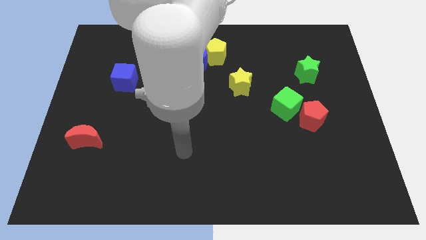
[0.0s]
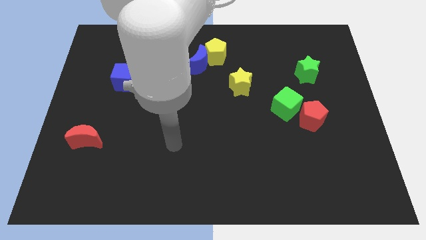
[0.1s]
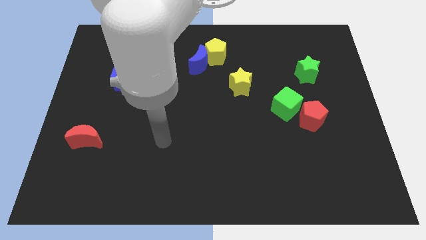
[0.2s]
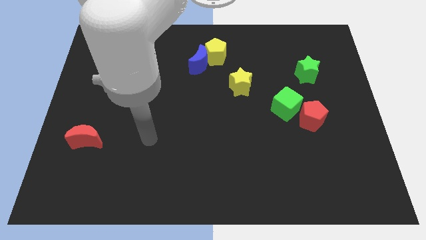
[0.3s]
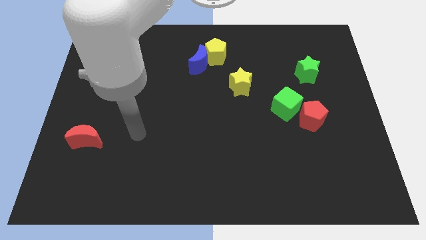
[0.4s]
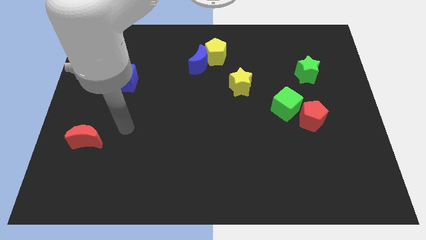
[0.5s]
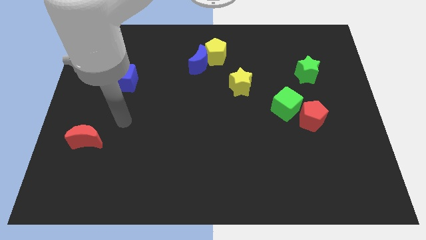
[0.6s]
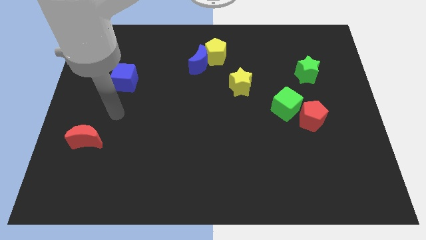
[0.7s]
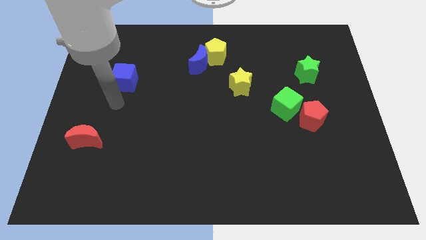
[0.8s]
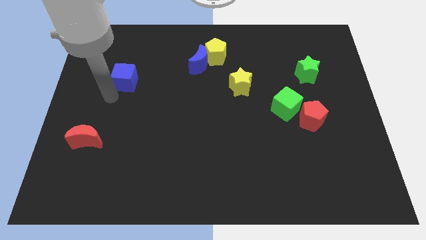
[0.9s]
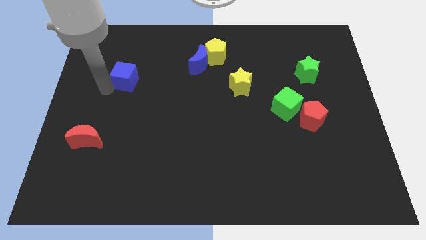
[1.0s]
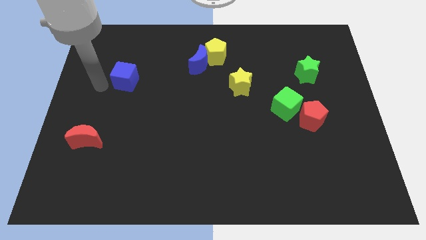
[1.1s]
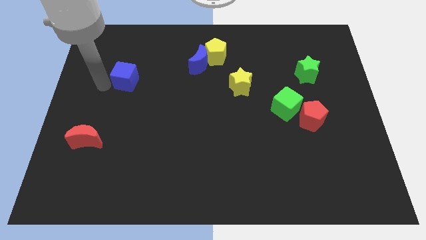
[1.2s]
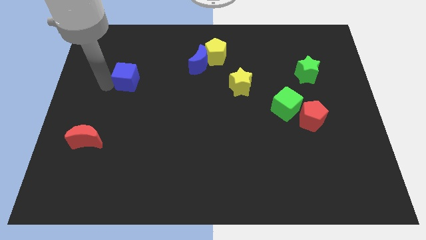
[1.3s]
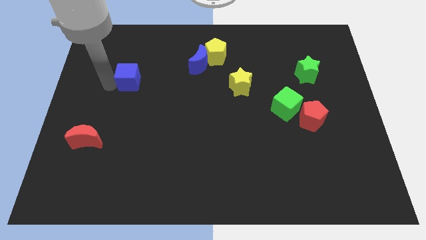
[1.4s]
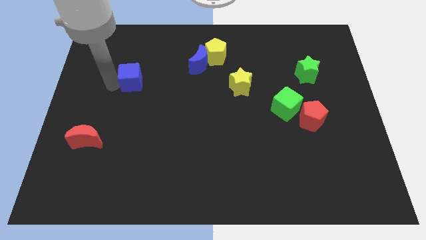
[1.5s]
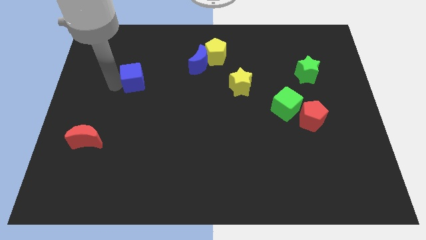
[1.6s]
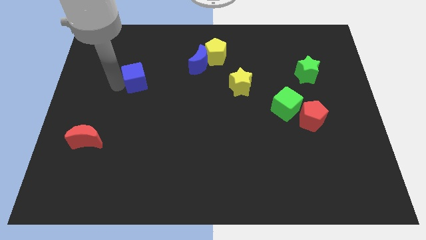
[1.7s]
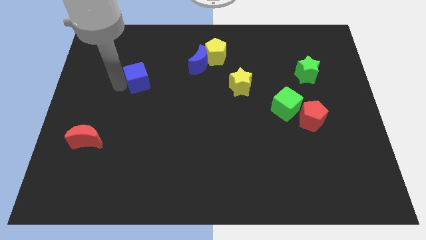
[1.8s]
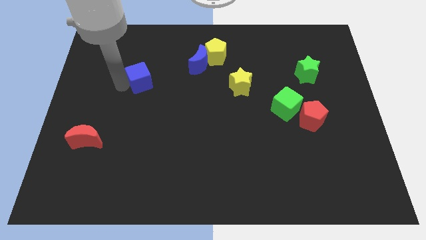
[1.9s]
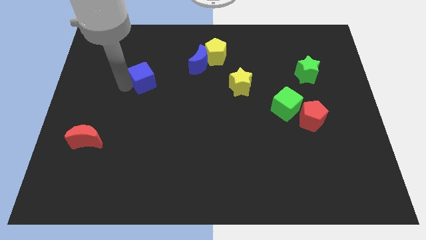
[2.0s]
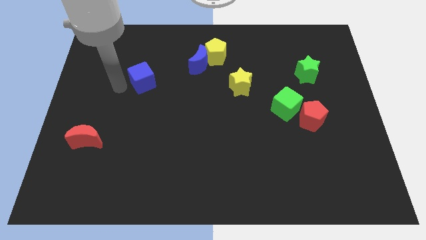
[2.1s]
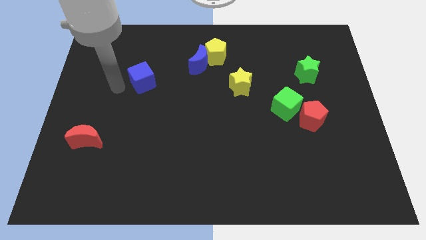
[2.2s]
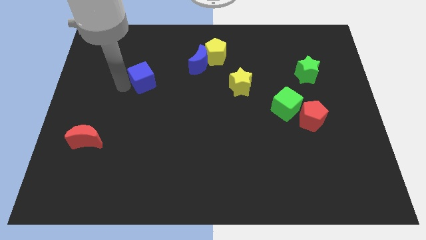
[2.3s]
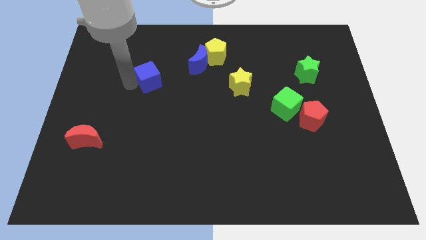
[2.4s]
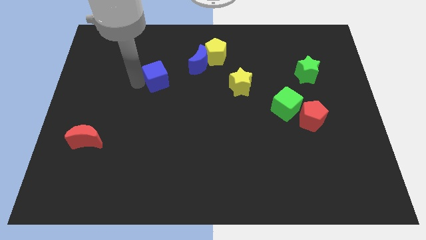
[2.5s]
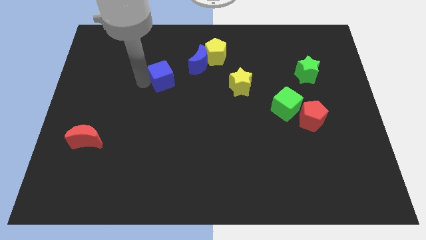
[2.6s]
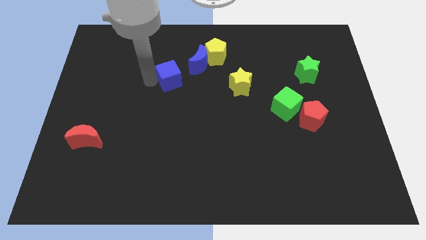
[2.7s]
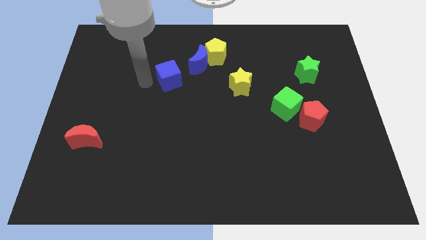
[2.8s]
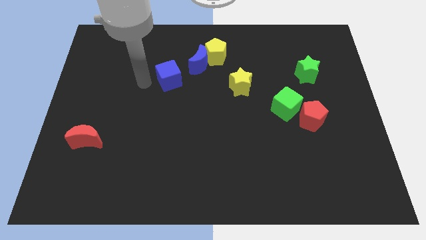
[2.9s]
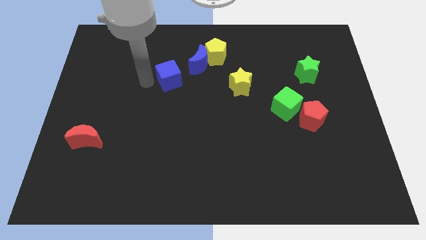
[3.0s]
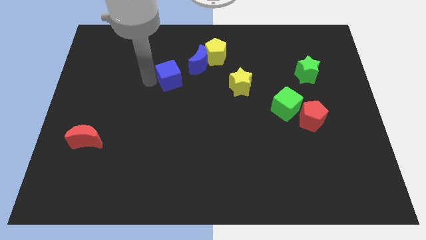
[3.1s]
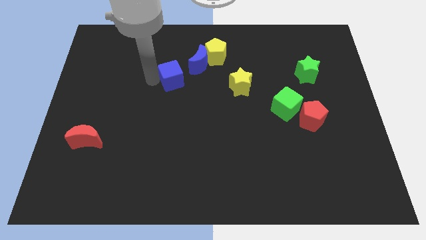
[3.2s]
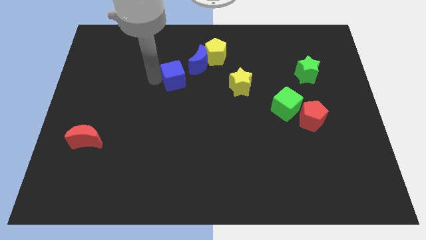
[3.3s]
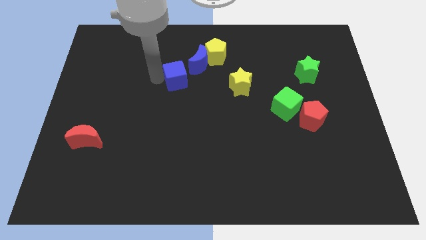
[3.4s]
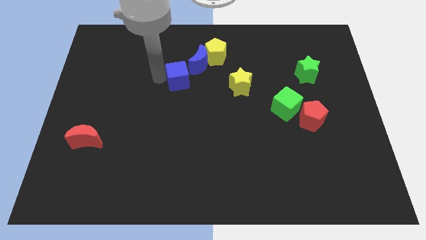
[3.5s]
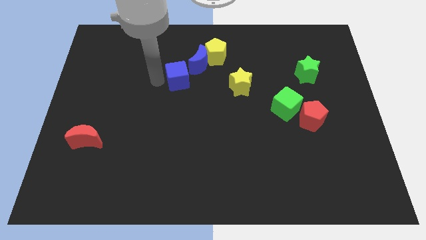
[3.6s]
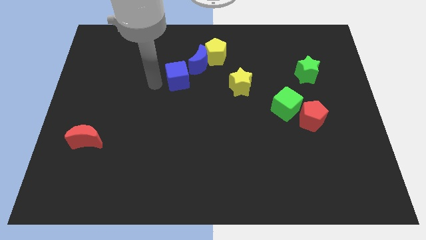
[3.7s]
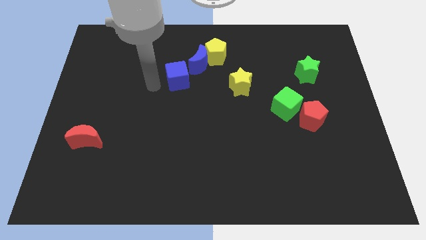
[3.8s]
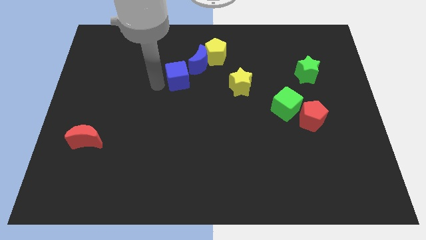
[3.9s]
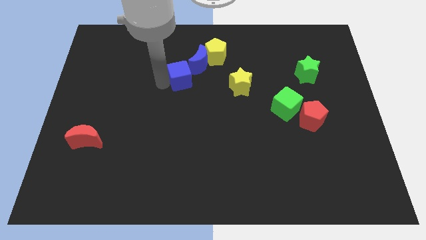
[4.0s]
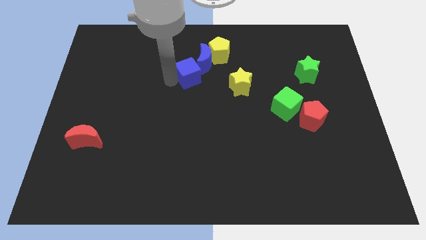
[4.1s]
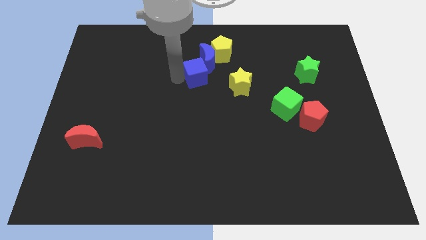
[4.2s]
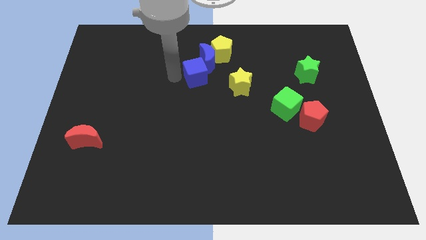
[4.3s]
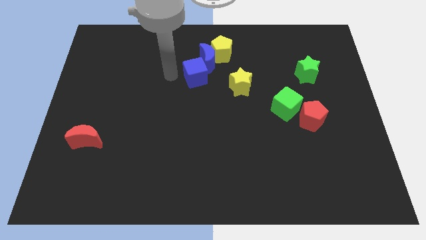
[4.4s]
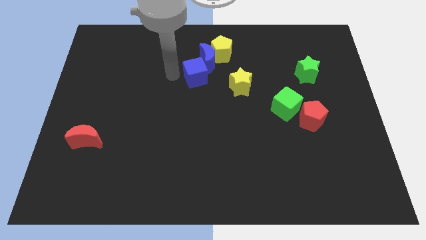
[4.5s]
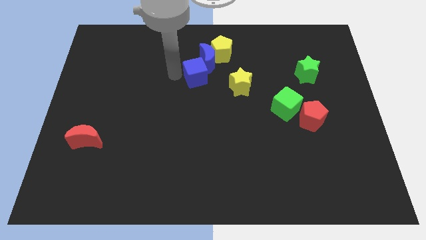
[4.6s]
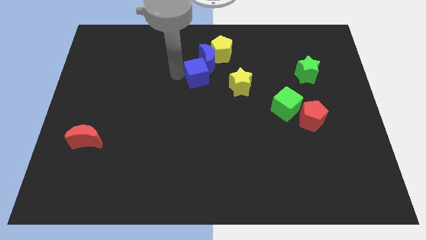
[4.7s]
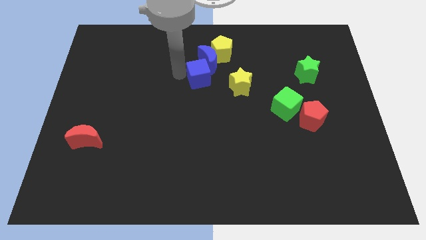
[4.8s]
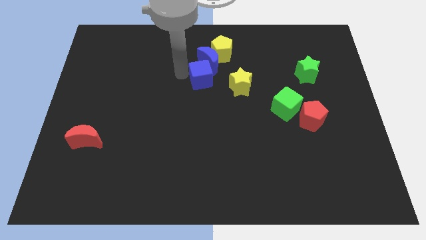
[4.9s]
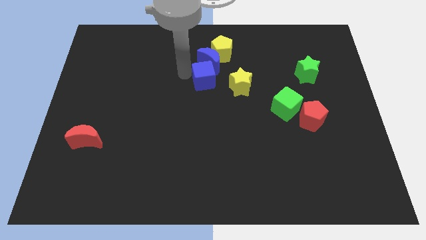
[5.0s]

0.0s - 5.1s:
push the blue cube right

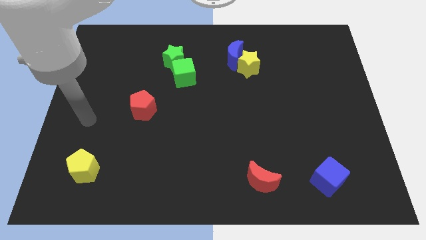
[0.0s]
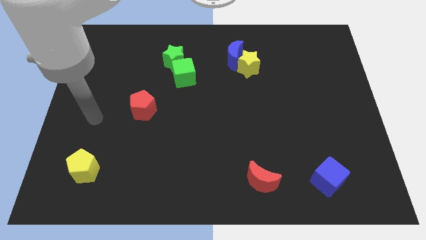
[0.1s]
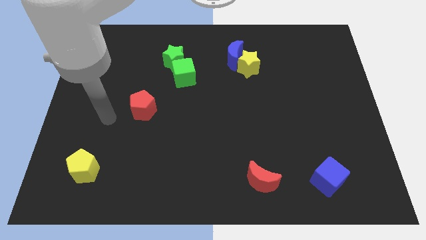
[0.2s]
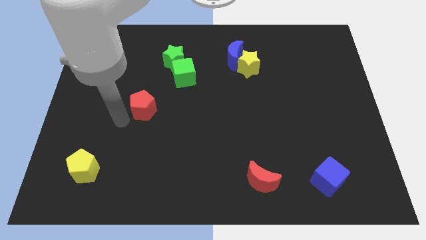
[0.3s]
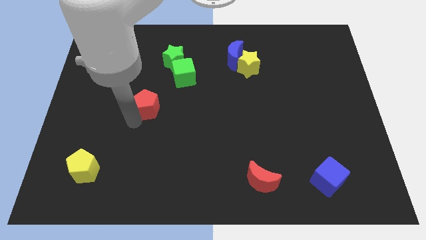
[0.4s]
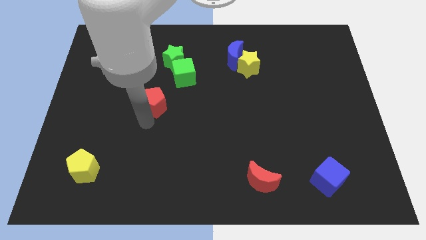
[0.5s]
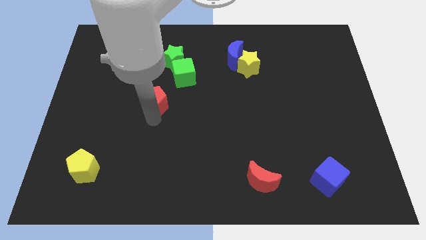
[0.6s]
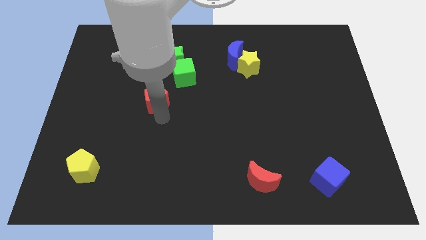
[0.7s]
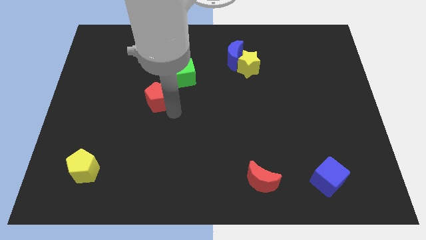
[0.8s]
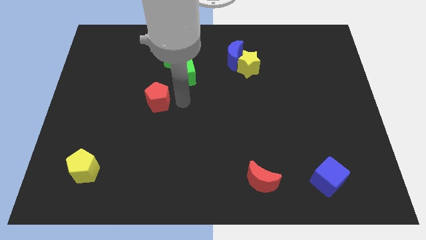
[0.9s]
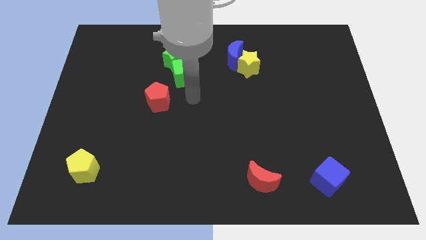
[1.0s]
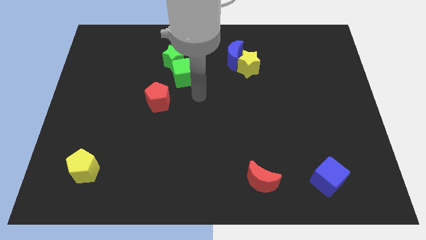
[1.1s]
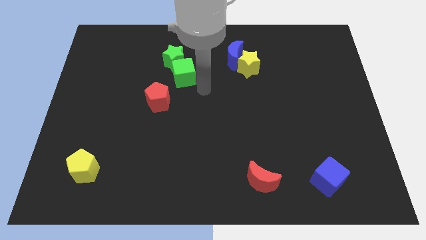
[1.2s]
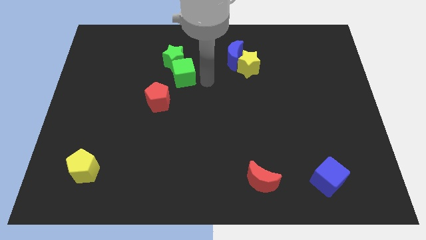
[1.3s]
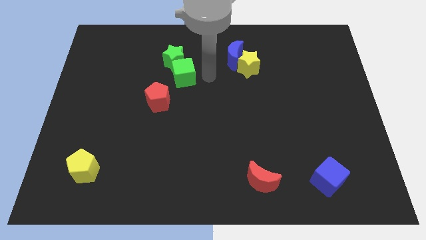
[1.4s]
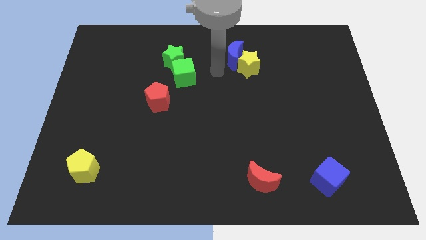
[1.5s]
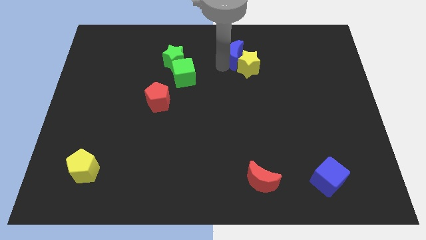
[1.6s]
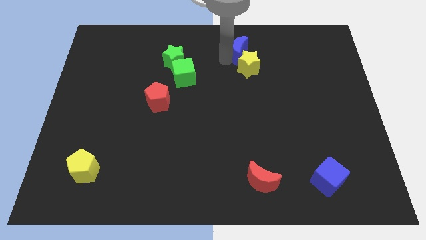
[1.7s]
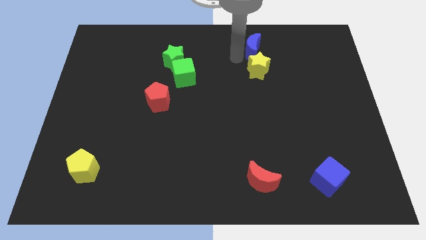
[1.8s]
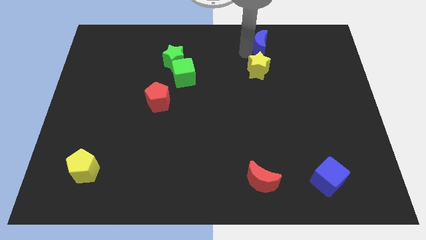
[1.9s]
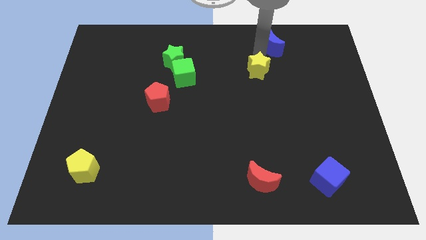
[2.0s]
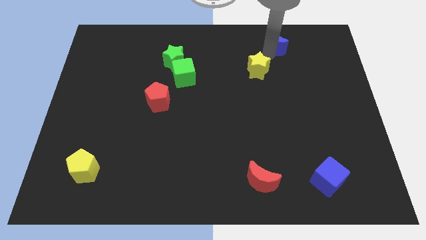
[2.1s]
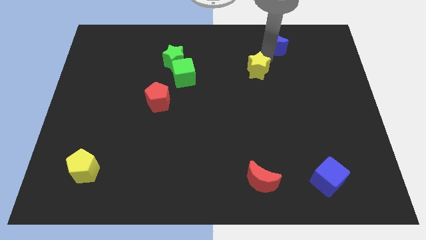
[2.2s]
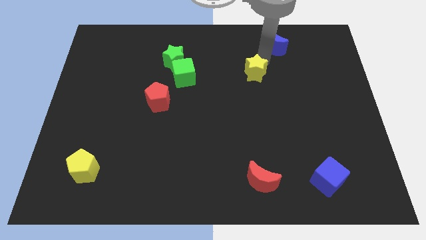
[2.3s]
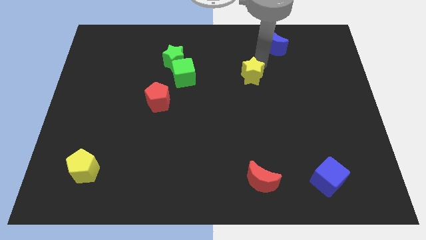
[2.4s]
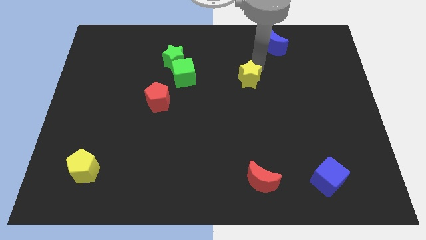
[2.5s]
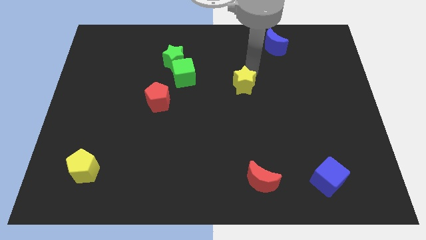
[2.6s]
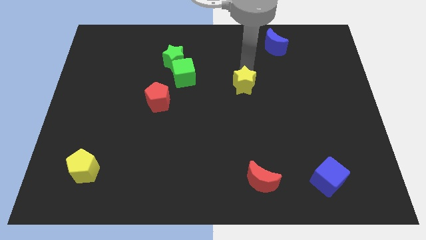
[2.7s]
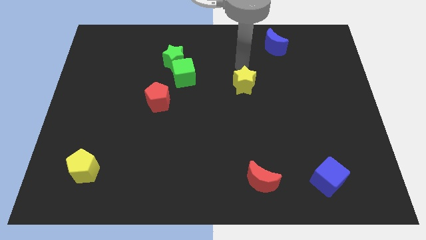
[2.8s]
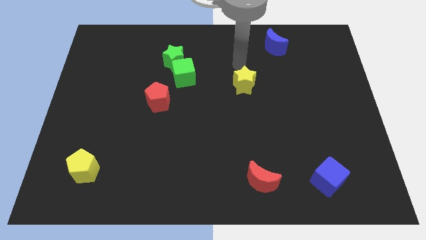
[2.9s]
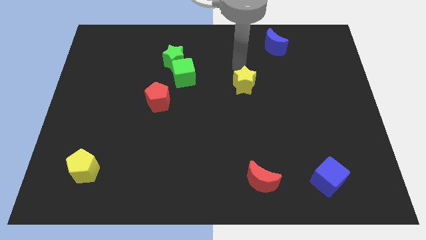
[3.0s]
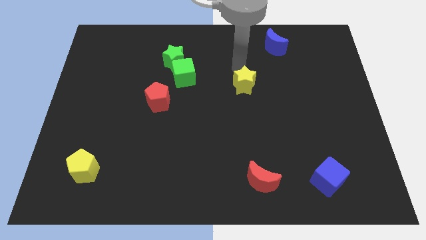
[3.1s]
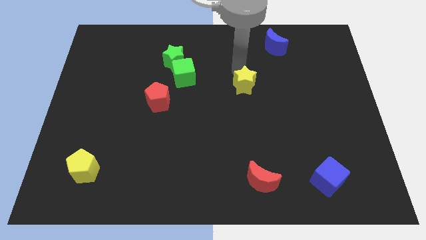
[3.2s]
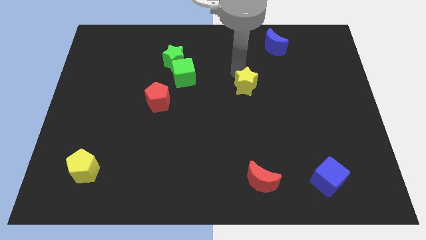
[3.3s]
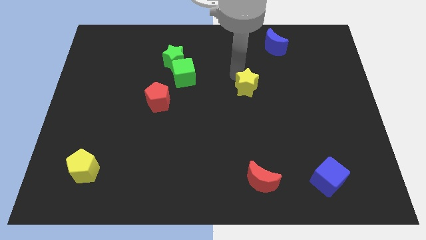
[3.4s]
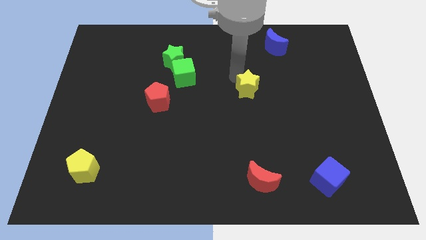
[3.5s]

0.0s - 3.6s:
move the yellow star down a little bit
